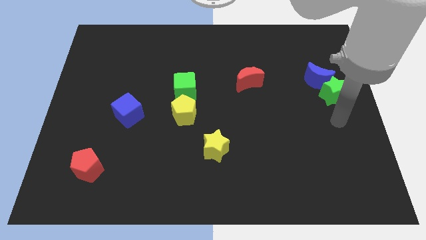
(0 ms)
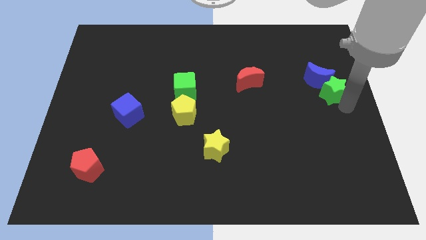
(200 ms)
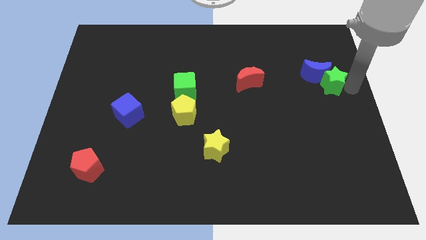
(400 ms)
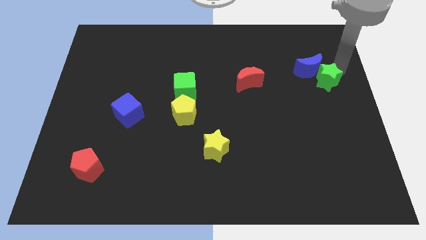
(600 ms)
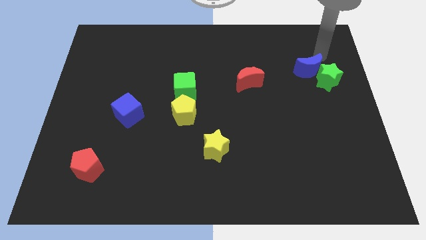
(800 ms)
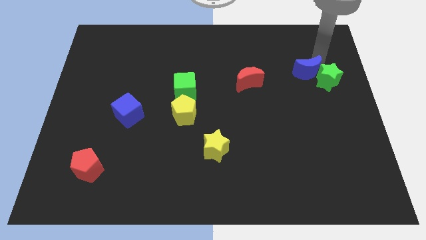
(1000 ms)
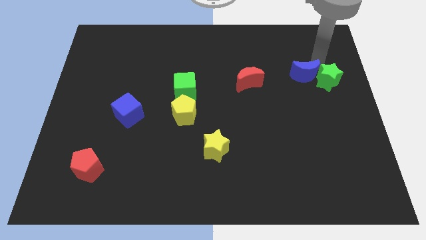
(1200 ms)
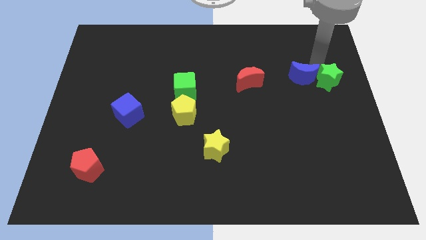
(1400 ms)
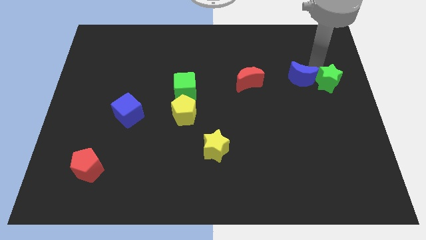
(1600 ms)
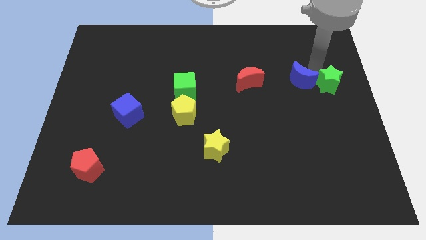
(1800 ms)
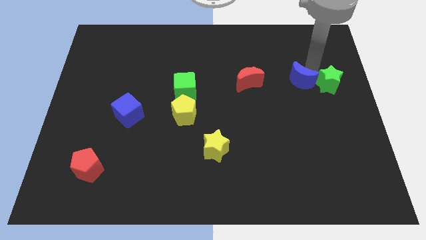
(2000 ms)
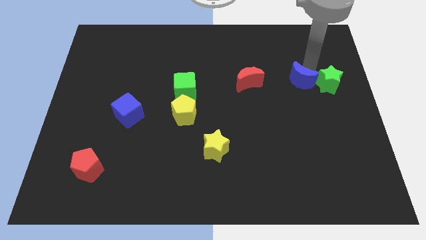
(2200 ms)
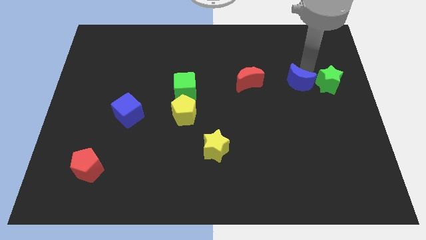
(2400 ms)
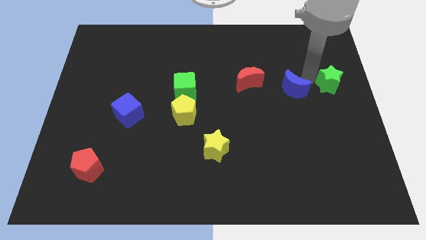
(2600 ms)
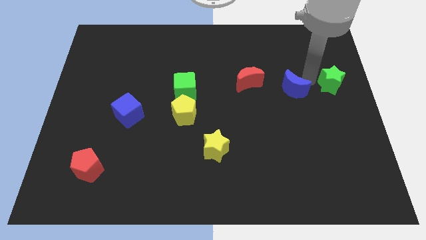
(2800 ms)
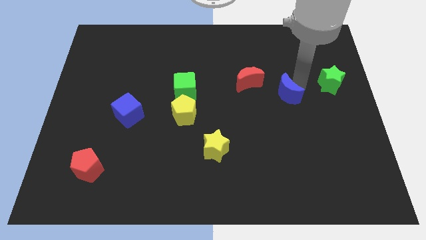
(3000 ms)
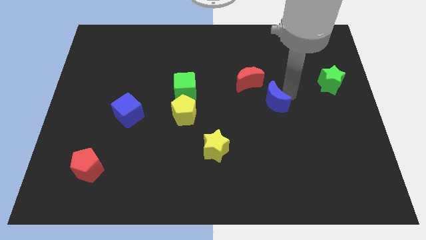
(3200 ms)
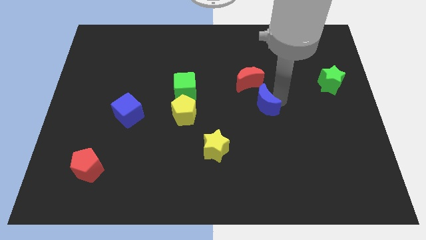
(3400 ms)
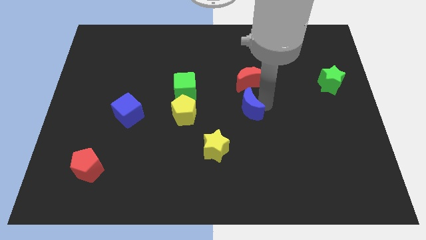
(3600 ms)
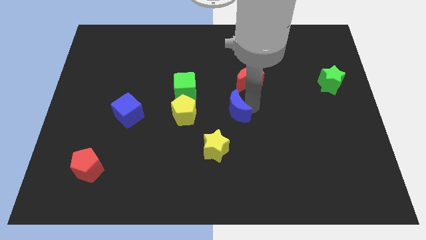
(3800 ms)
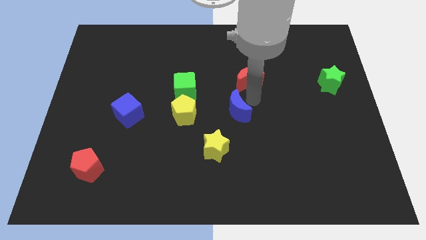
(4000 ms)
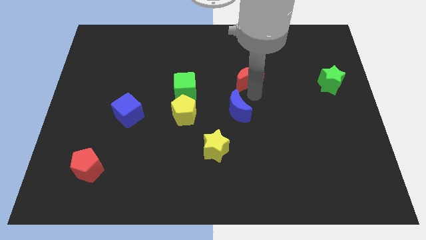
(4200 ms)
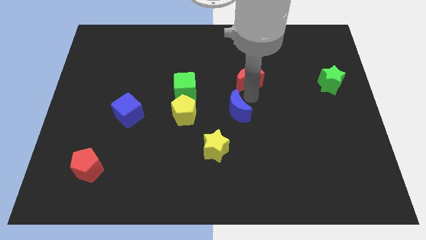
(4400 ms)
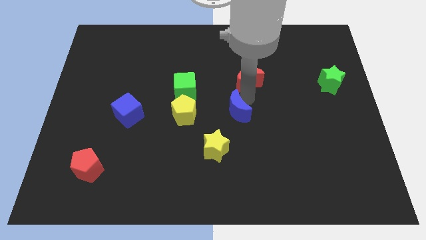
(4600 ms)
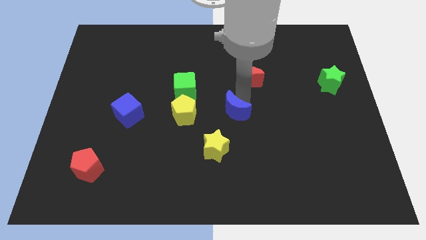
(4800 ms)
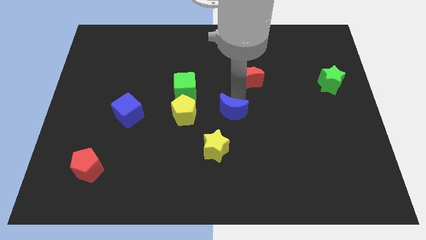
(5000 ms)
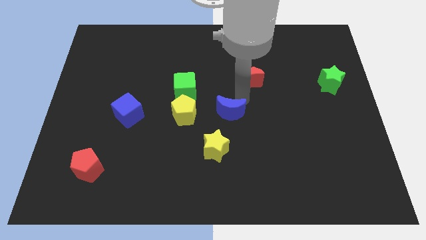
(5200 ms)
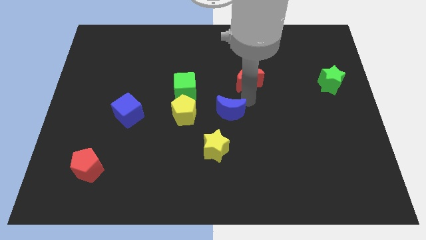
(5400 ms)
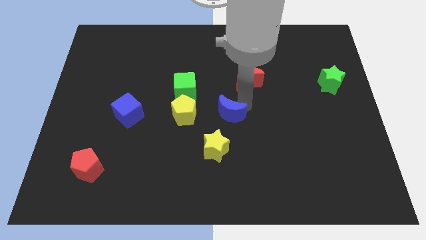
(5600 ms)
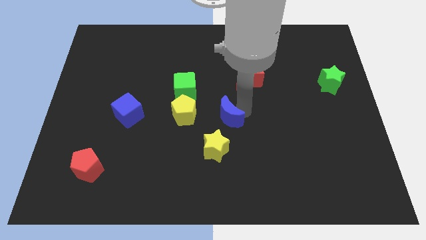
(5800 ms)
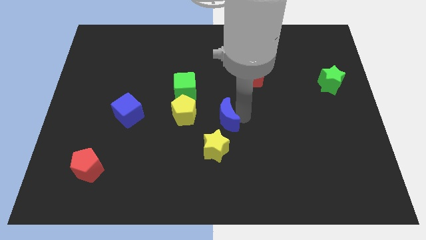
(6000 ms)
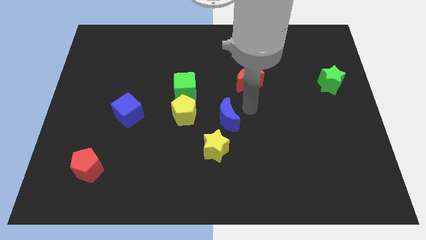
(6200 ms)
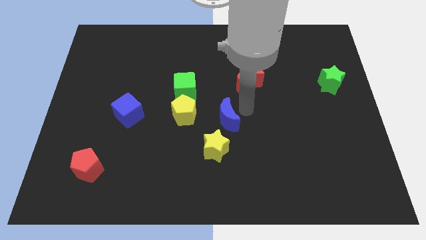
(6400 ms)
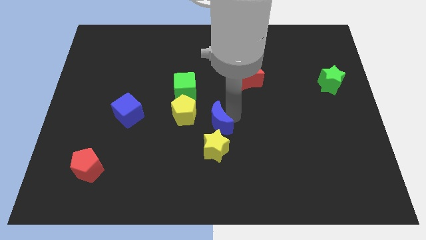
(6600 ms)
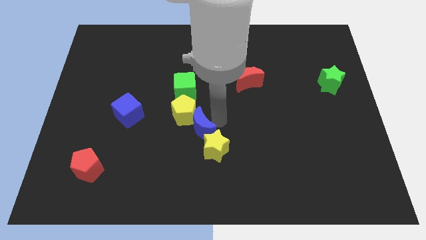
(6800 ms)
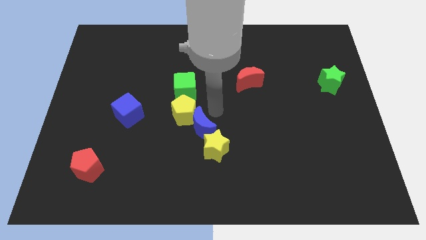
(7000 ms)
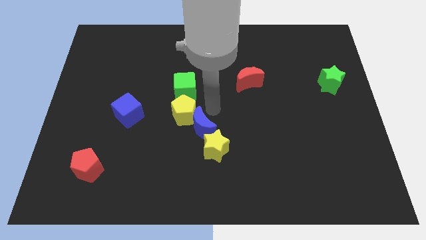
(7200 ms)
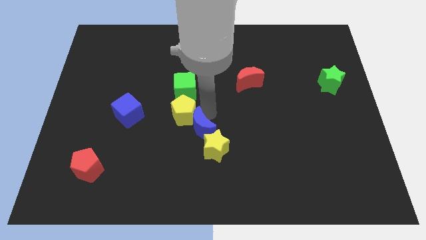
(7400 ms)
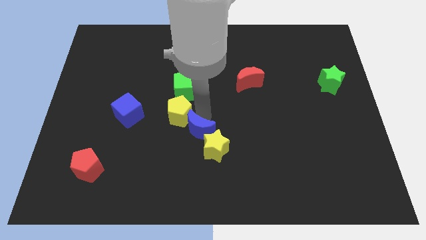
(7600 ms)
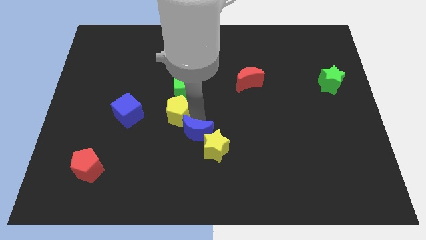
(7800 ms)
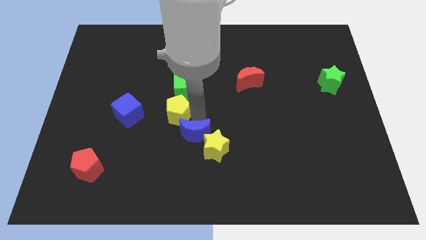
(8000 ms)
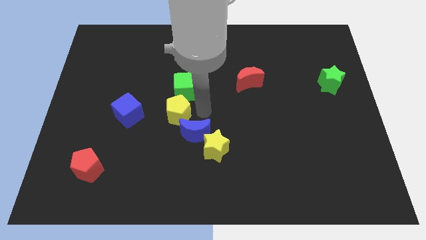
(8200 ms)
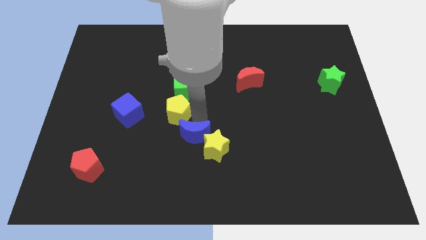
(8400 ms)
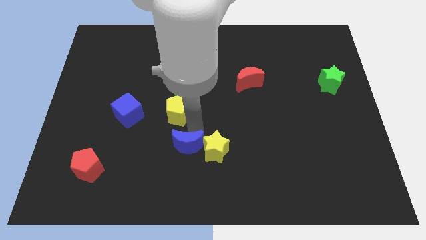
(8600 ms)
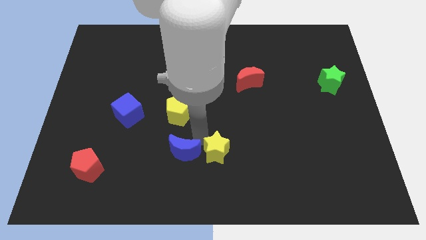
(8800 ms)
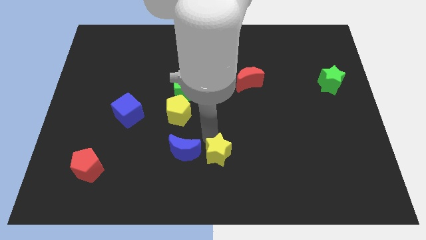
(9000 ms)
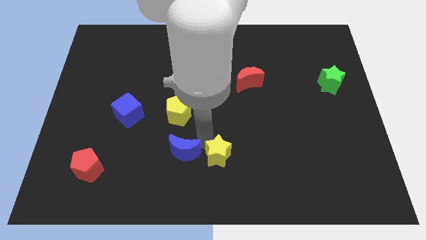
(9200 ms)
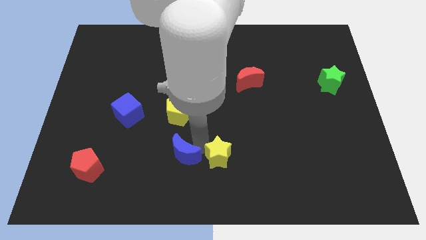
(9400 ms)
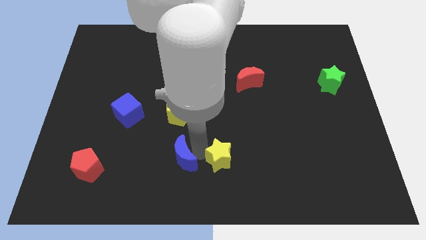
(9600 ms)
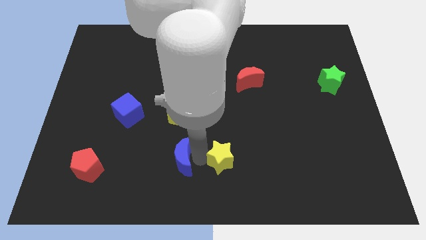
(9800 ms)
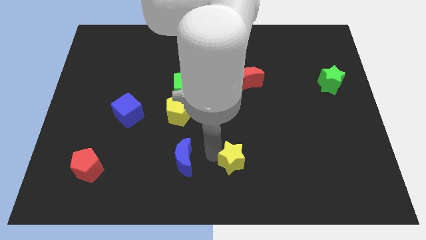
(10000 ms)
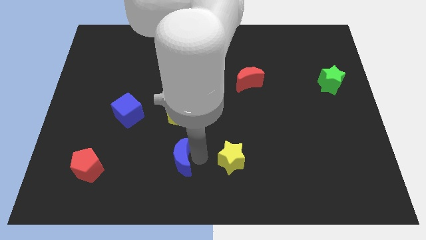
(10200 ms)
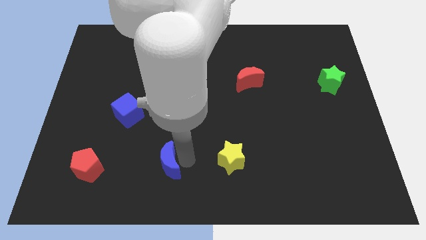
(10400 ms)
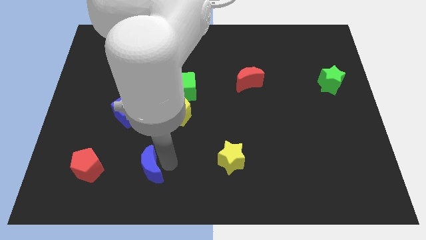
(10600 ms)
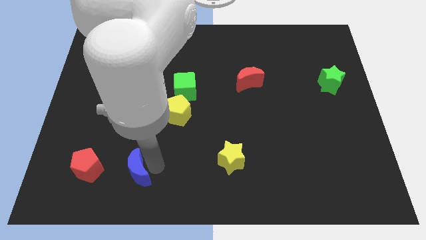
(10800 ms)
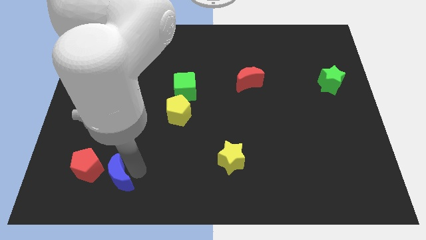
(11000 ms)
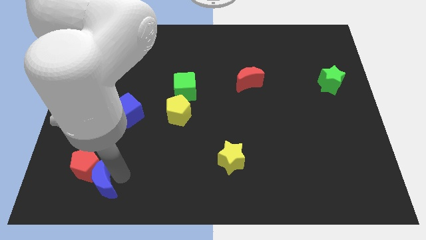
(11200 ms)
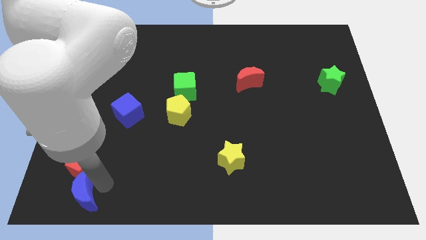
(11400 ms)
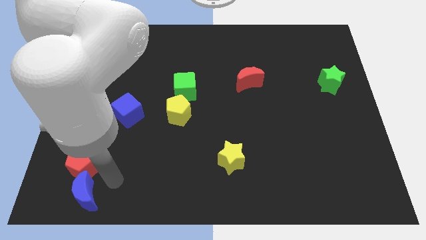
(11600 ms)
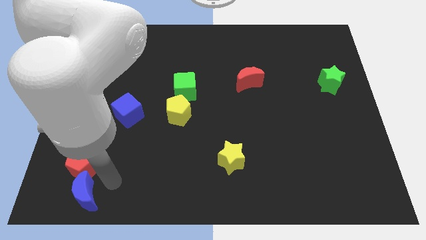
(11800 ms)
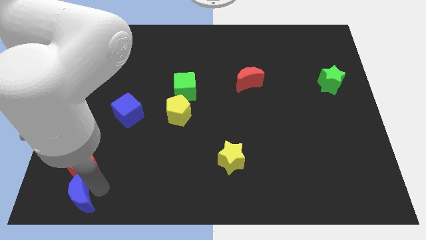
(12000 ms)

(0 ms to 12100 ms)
put the blue moon to the bottom left corner

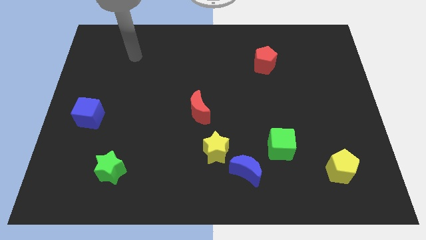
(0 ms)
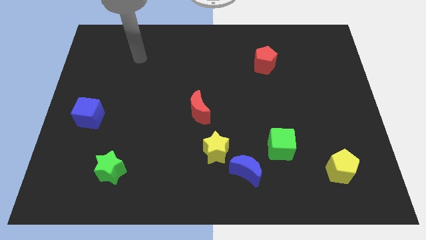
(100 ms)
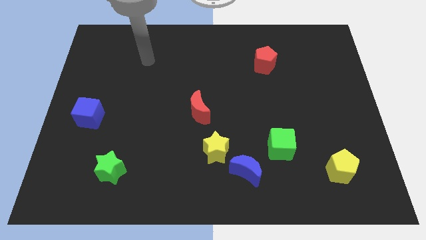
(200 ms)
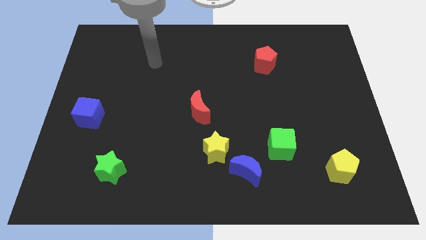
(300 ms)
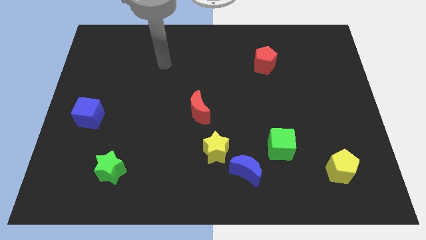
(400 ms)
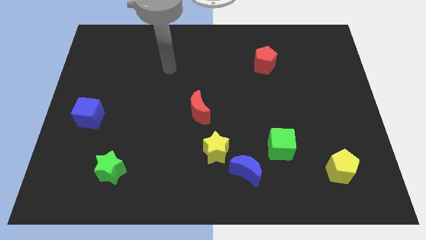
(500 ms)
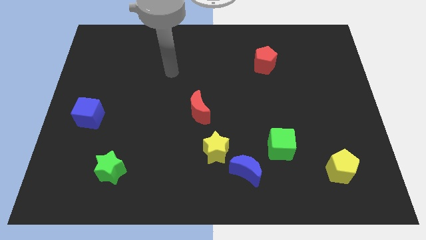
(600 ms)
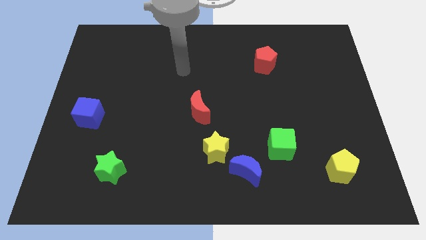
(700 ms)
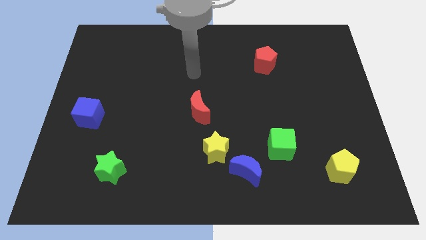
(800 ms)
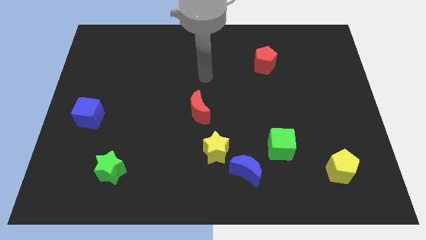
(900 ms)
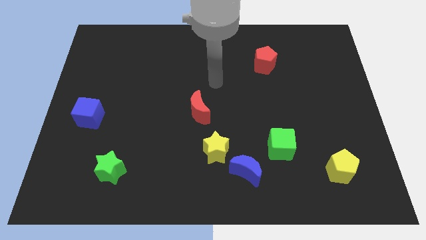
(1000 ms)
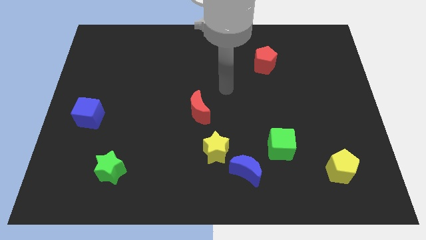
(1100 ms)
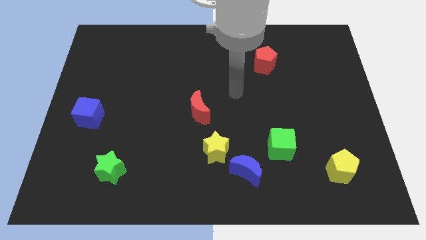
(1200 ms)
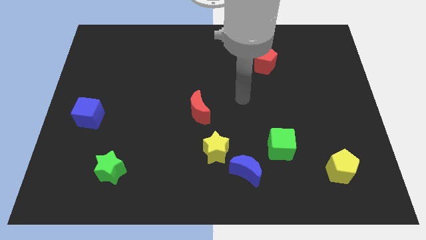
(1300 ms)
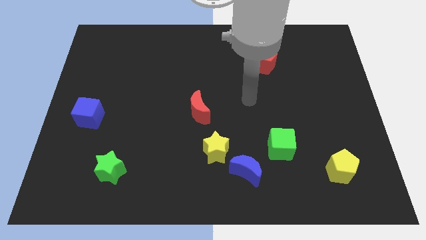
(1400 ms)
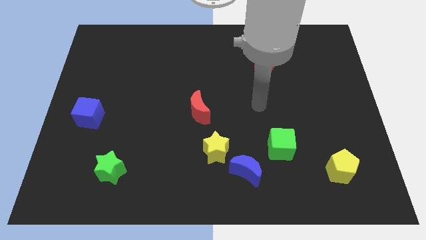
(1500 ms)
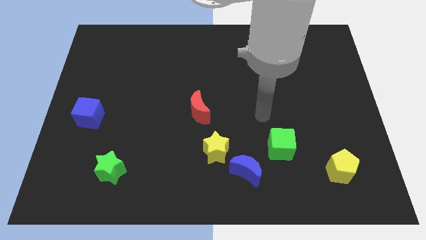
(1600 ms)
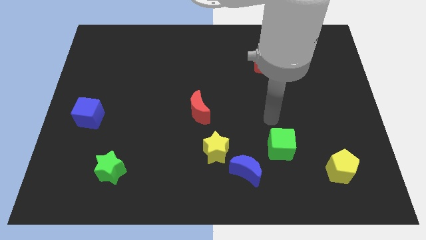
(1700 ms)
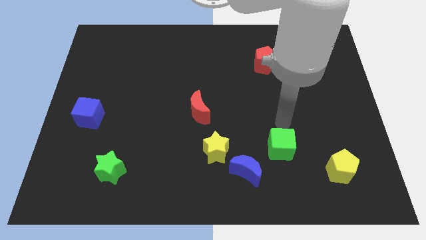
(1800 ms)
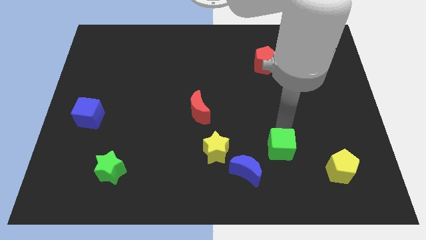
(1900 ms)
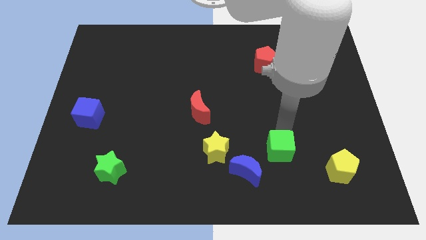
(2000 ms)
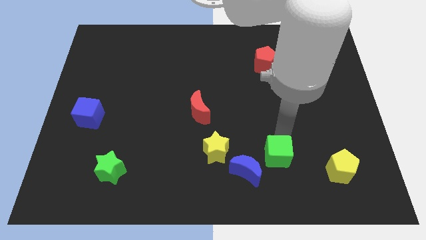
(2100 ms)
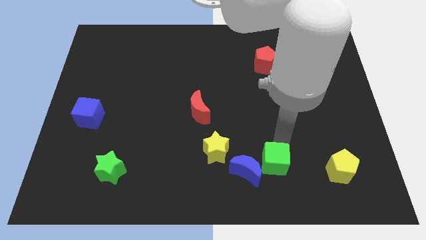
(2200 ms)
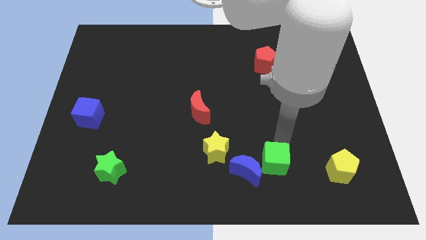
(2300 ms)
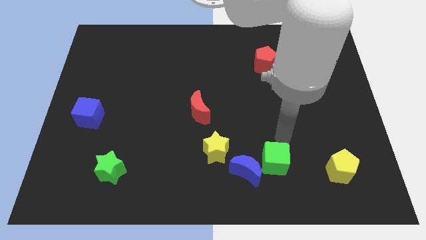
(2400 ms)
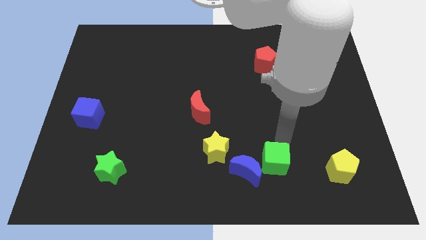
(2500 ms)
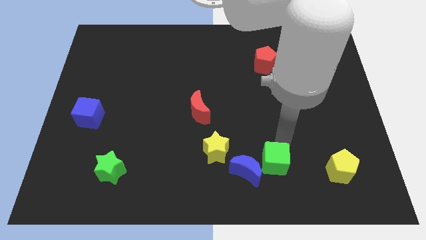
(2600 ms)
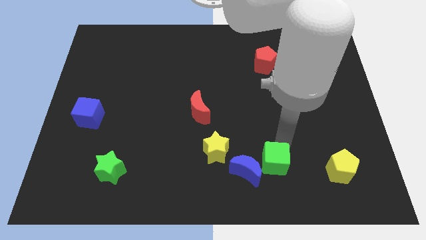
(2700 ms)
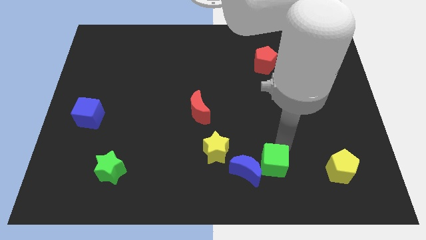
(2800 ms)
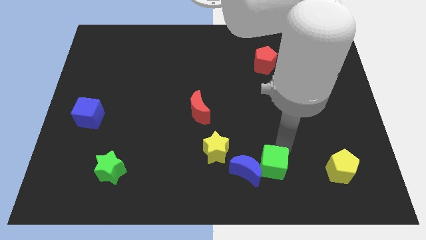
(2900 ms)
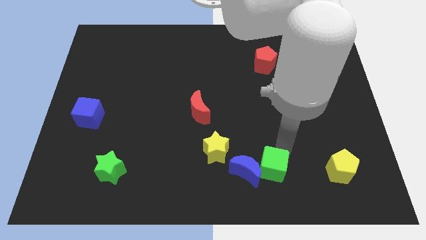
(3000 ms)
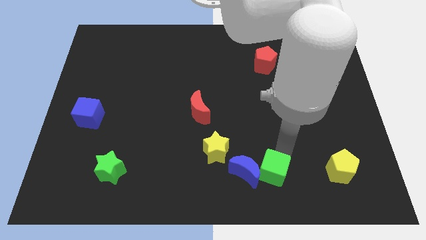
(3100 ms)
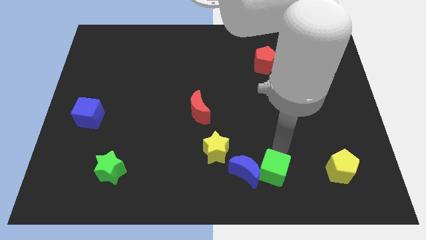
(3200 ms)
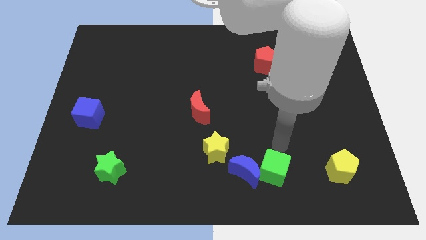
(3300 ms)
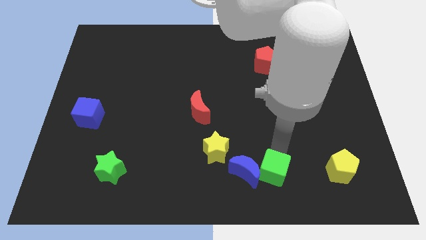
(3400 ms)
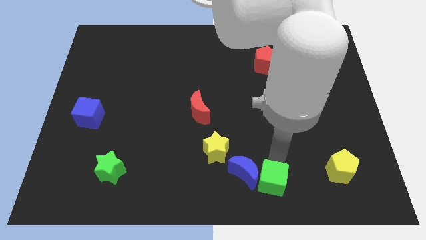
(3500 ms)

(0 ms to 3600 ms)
push the green cube to the bottom side
